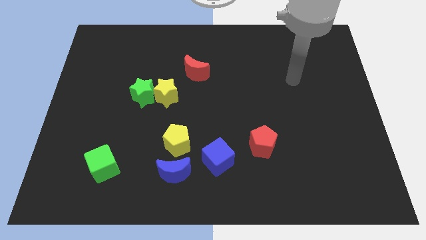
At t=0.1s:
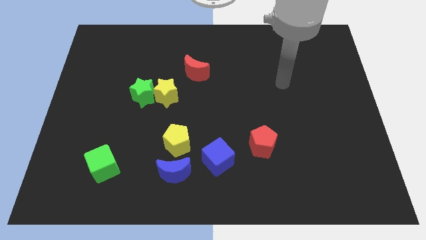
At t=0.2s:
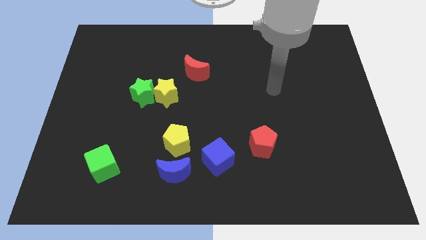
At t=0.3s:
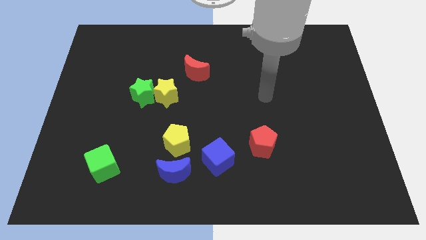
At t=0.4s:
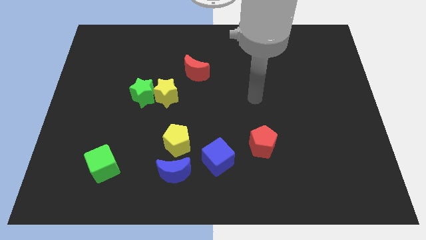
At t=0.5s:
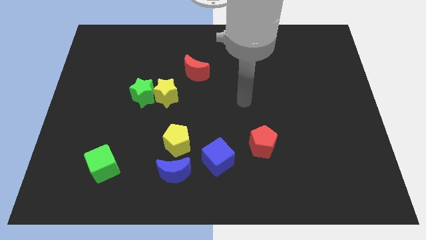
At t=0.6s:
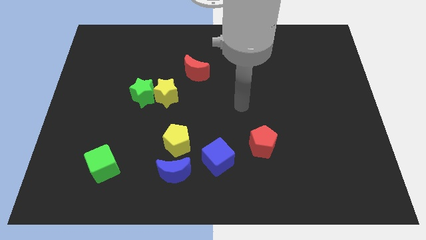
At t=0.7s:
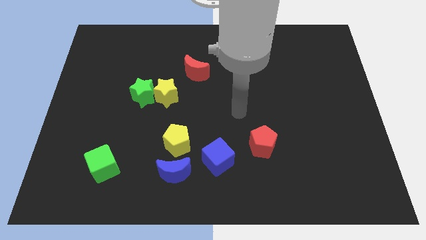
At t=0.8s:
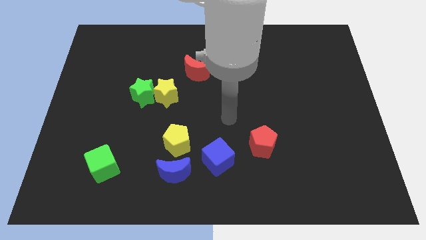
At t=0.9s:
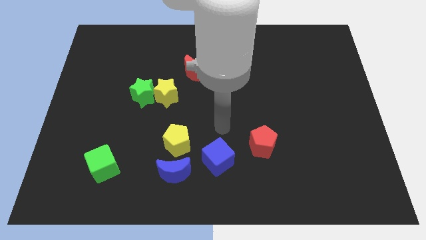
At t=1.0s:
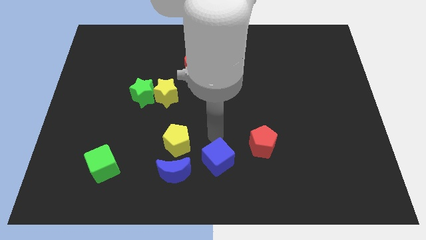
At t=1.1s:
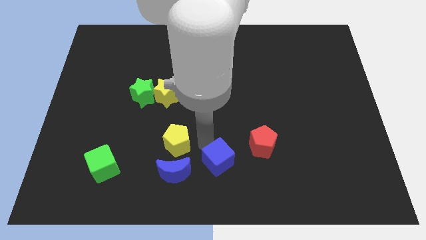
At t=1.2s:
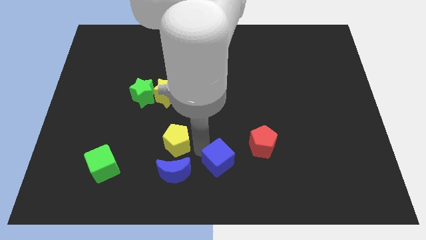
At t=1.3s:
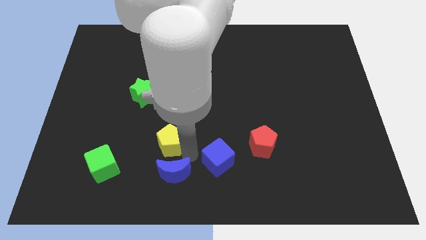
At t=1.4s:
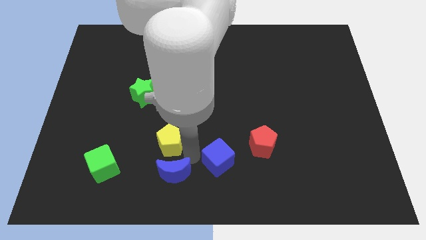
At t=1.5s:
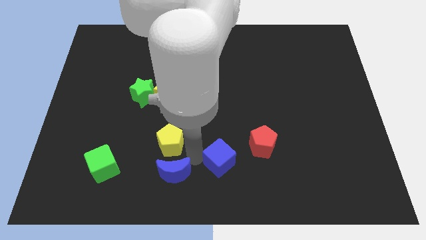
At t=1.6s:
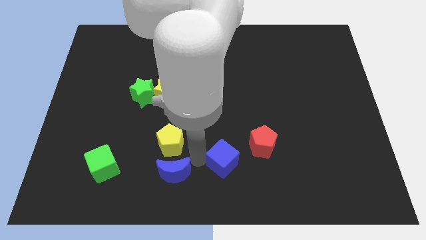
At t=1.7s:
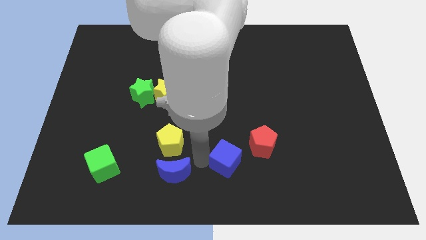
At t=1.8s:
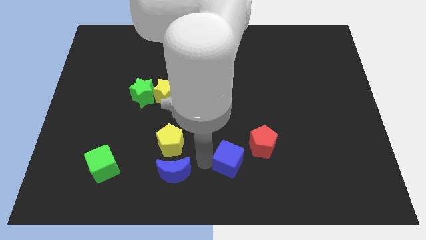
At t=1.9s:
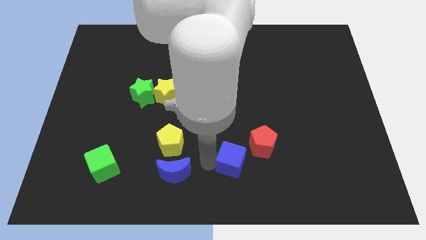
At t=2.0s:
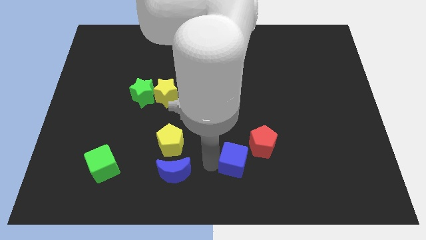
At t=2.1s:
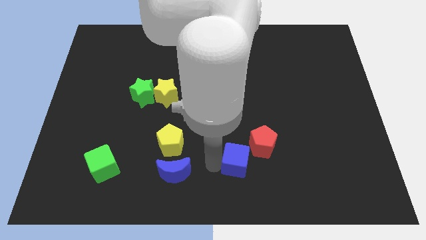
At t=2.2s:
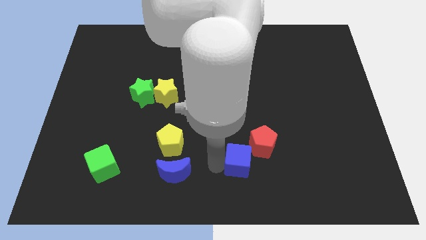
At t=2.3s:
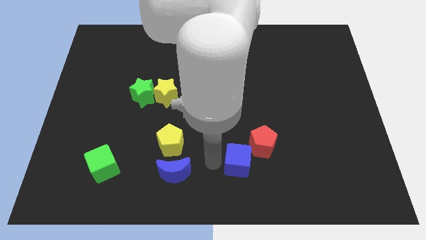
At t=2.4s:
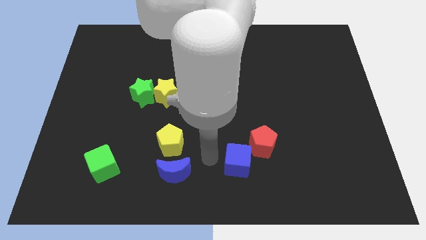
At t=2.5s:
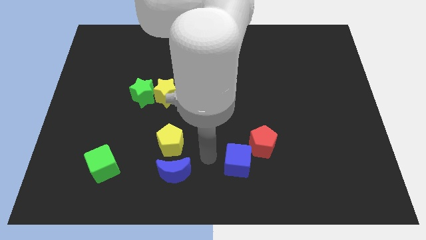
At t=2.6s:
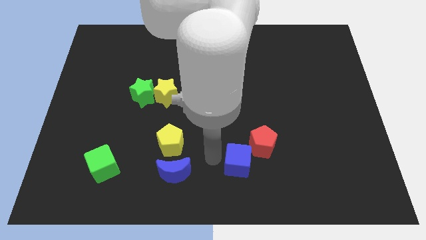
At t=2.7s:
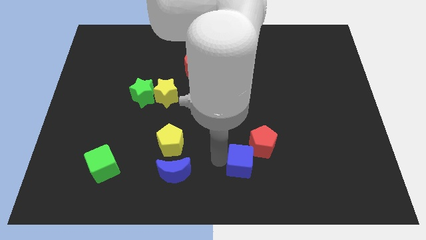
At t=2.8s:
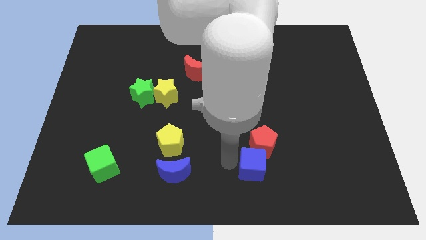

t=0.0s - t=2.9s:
push the blue cube to the right a little bit

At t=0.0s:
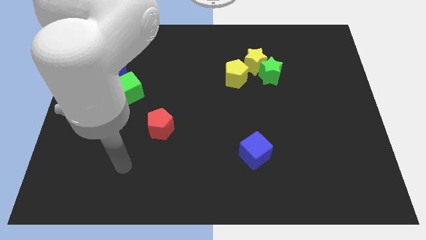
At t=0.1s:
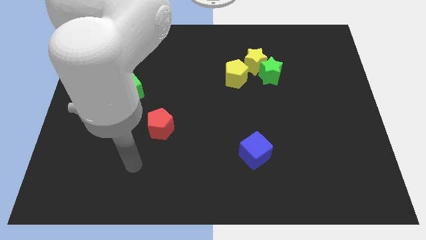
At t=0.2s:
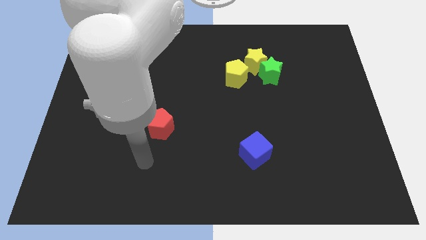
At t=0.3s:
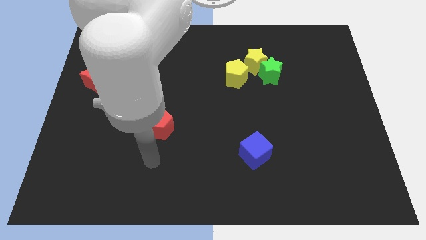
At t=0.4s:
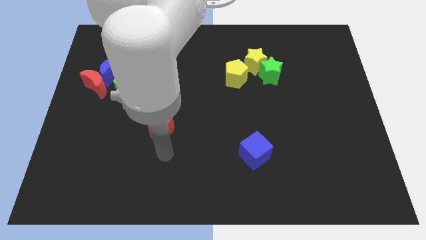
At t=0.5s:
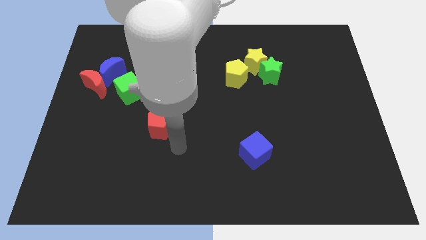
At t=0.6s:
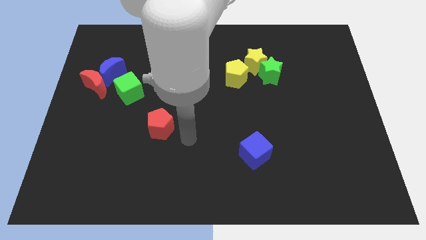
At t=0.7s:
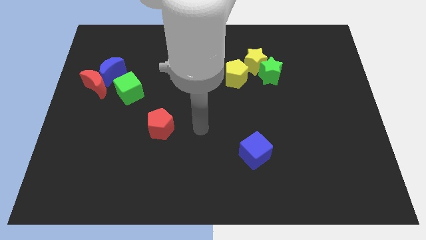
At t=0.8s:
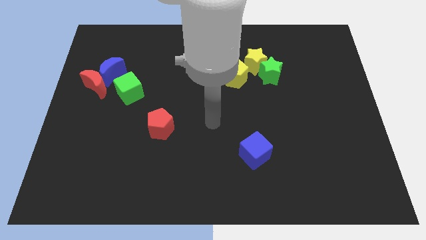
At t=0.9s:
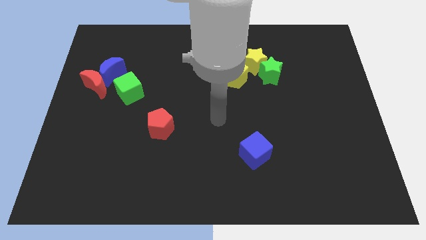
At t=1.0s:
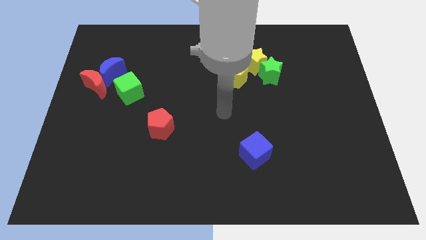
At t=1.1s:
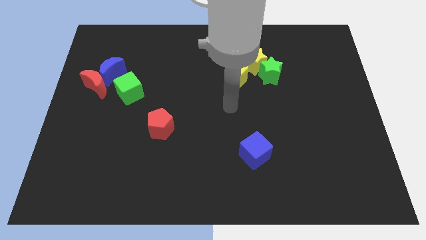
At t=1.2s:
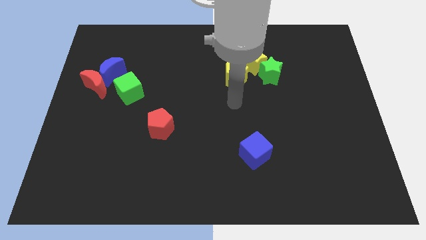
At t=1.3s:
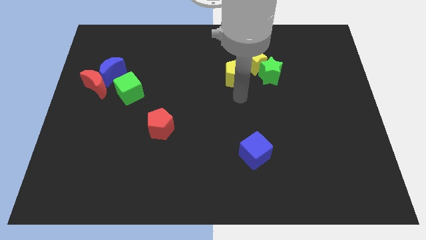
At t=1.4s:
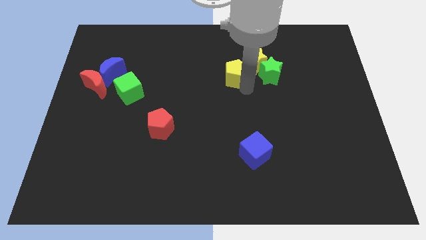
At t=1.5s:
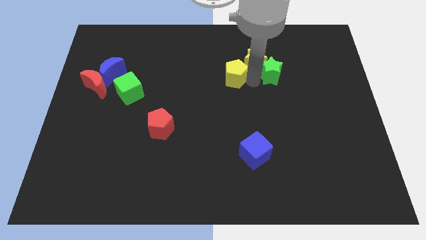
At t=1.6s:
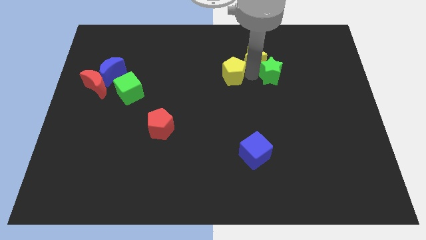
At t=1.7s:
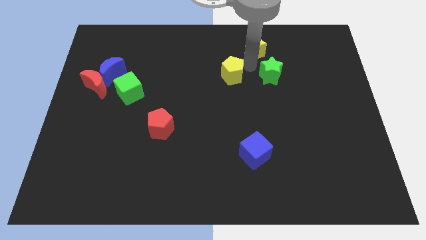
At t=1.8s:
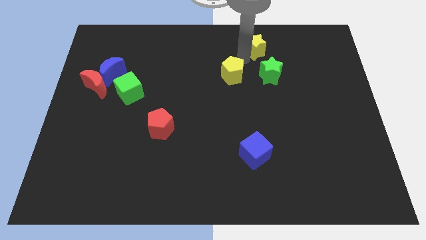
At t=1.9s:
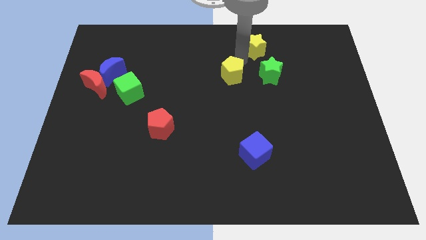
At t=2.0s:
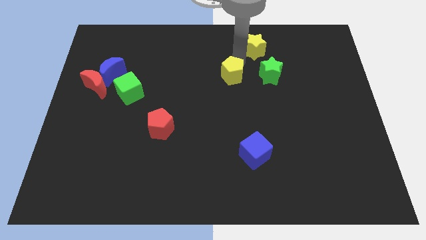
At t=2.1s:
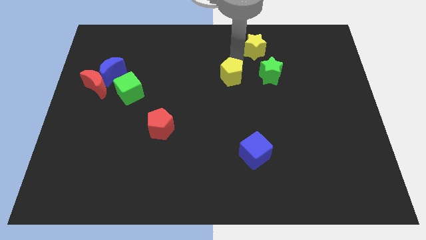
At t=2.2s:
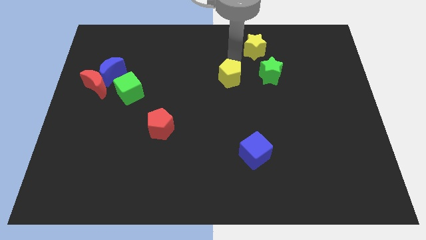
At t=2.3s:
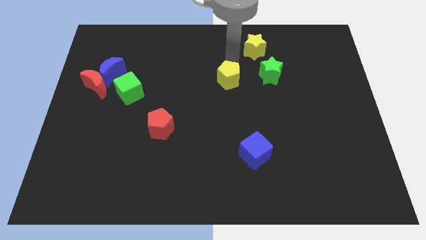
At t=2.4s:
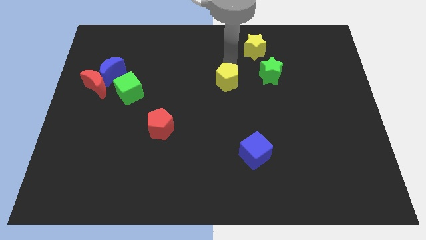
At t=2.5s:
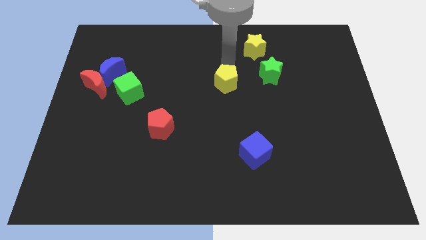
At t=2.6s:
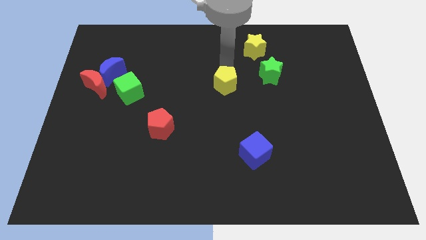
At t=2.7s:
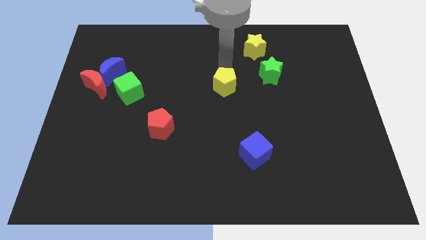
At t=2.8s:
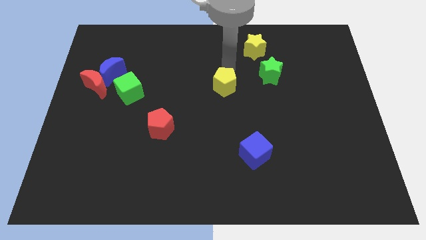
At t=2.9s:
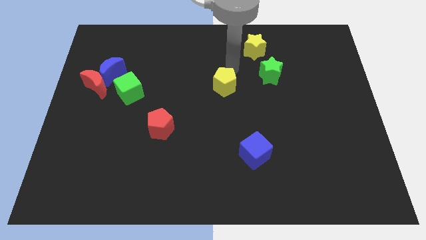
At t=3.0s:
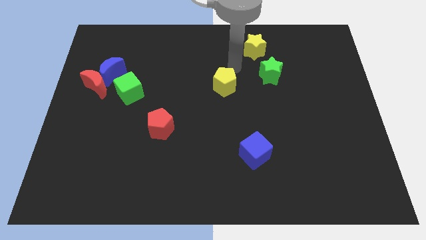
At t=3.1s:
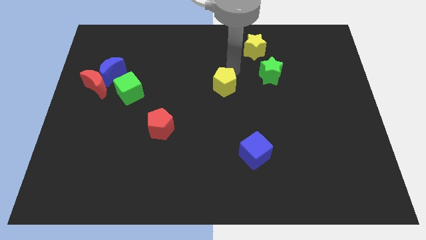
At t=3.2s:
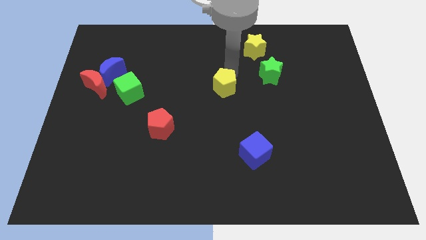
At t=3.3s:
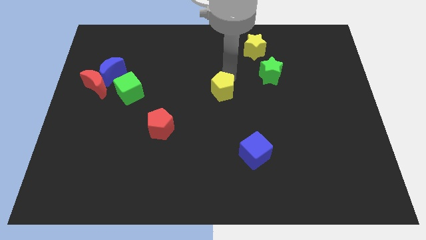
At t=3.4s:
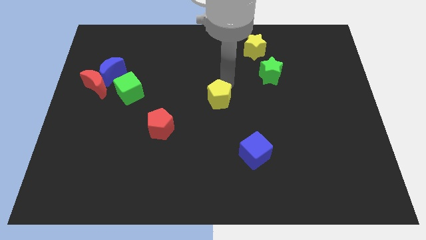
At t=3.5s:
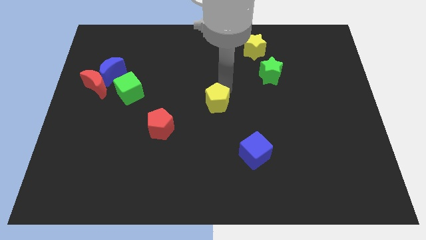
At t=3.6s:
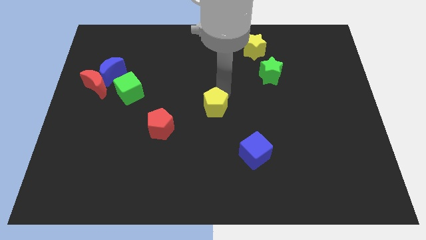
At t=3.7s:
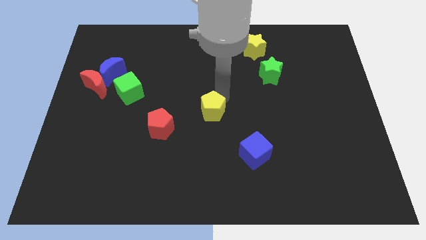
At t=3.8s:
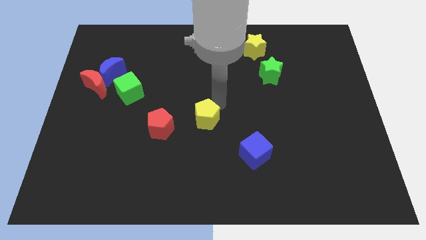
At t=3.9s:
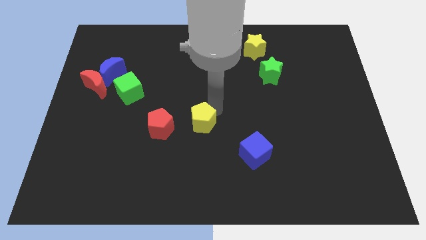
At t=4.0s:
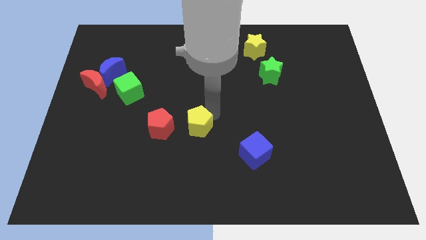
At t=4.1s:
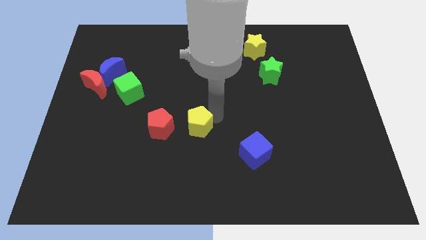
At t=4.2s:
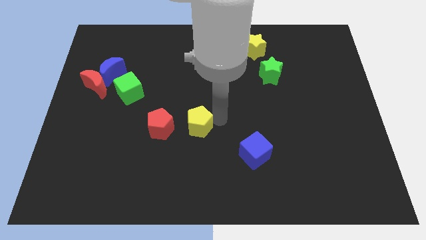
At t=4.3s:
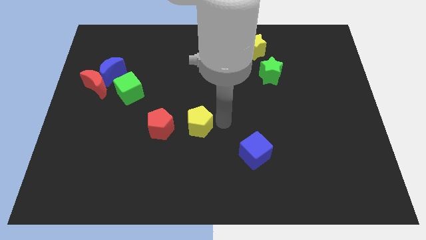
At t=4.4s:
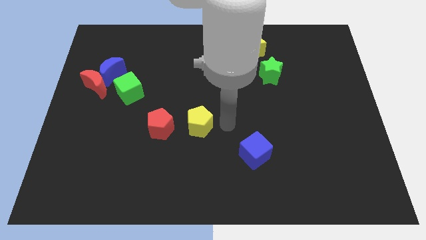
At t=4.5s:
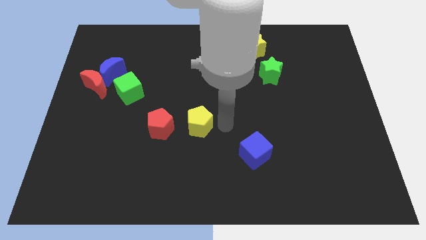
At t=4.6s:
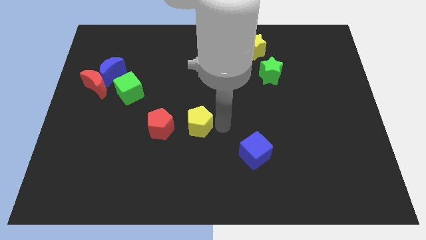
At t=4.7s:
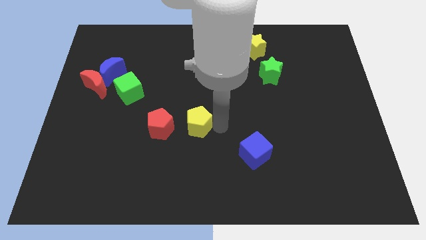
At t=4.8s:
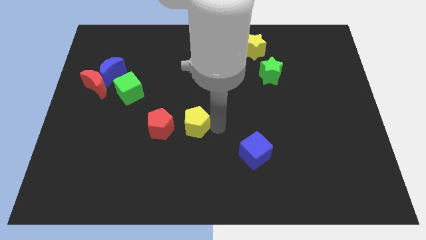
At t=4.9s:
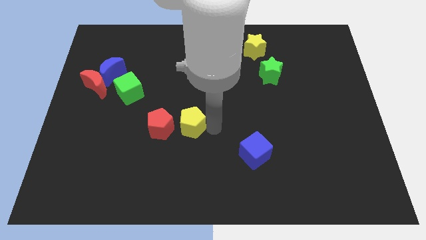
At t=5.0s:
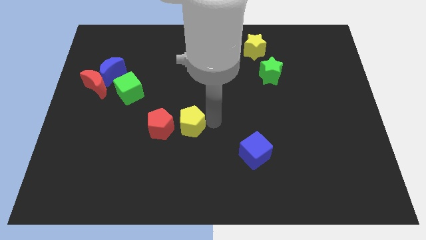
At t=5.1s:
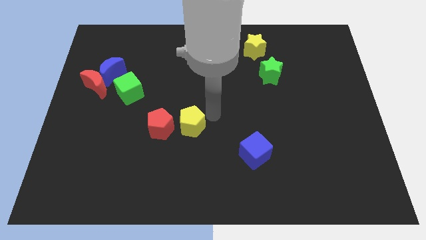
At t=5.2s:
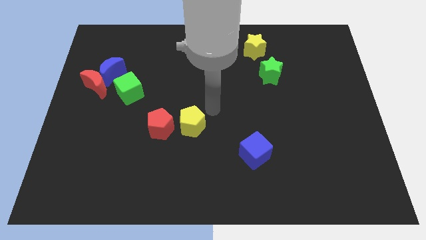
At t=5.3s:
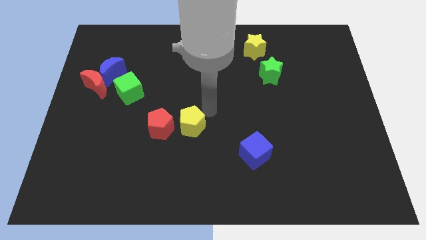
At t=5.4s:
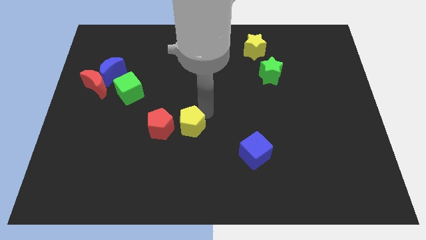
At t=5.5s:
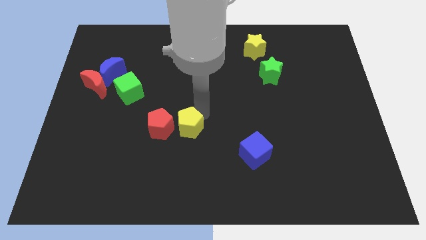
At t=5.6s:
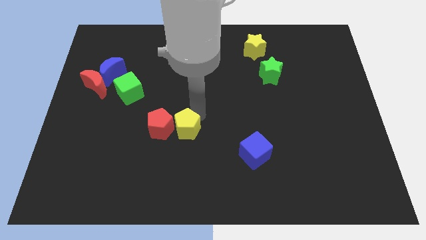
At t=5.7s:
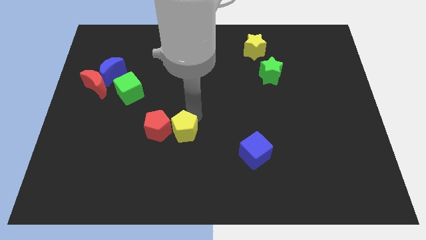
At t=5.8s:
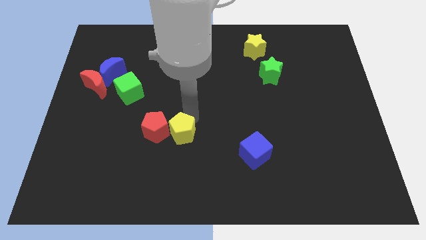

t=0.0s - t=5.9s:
move the yellow pentagon down and left diagonally
